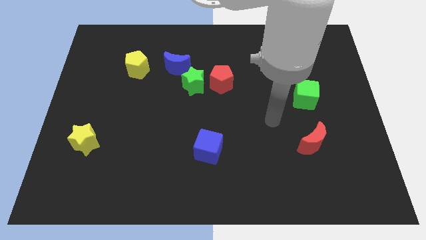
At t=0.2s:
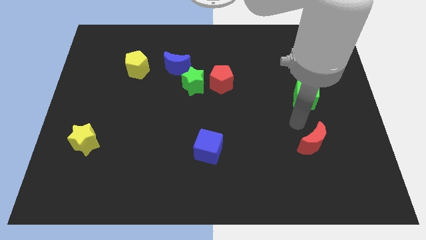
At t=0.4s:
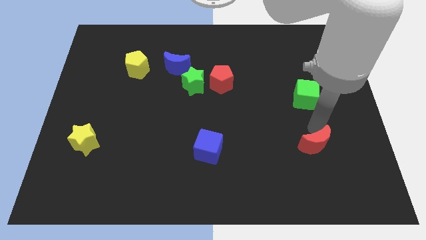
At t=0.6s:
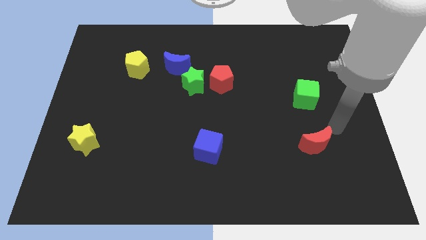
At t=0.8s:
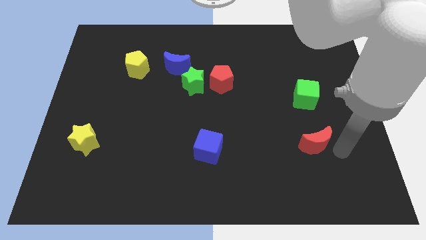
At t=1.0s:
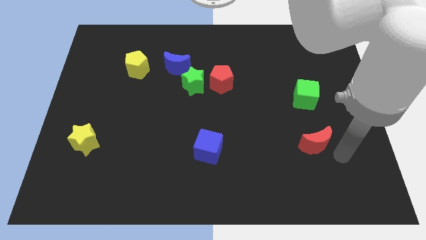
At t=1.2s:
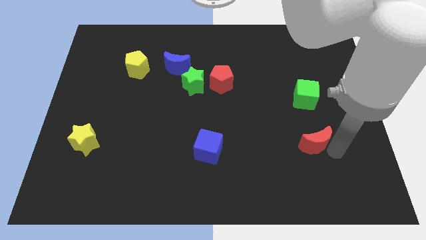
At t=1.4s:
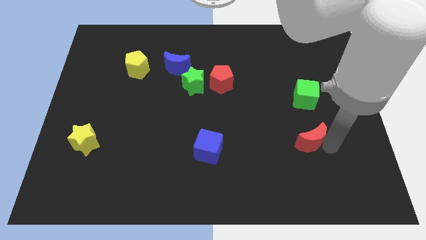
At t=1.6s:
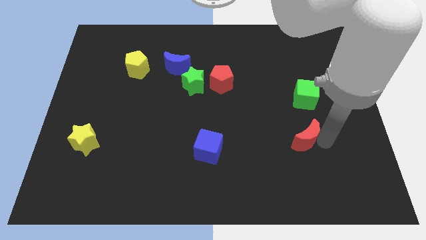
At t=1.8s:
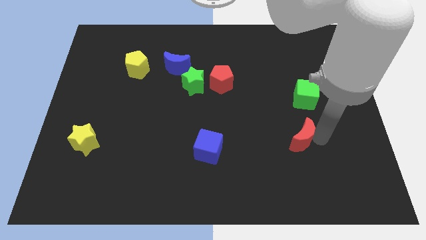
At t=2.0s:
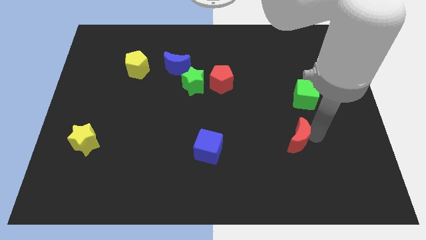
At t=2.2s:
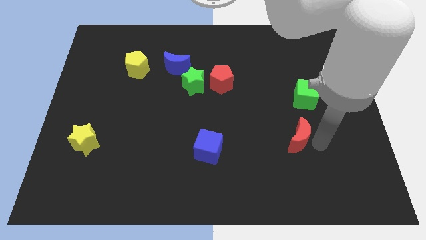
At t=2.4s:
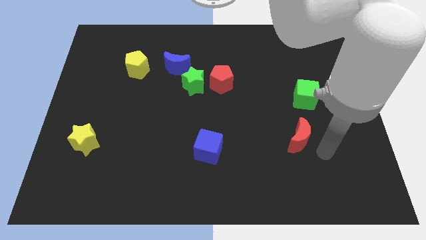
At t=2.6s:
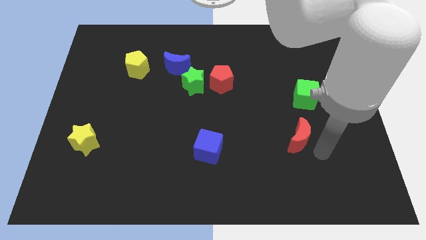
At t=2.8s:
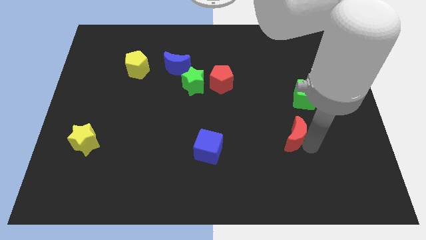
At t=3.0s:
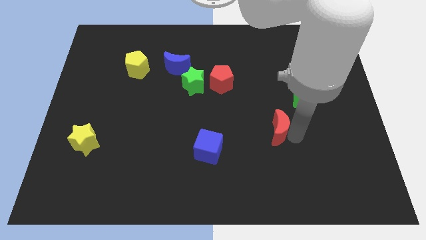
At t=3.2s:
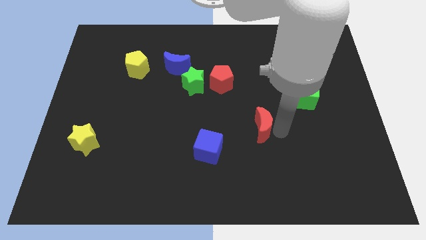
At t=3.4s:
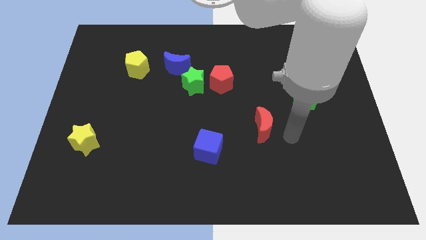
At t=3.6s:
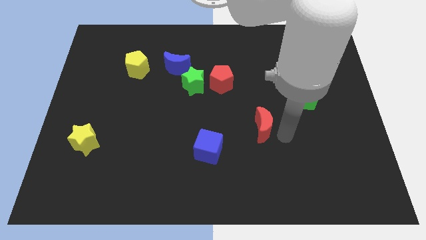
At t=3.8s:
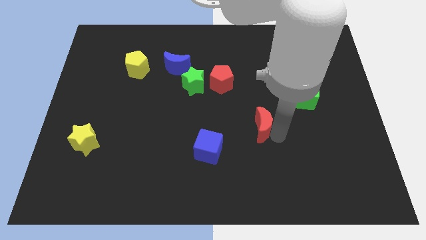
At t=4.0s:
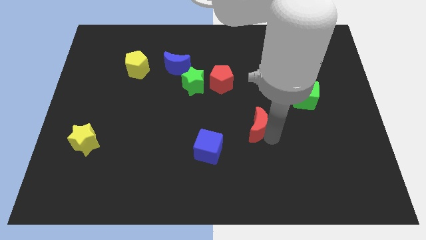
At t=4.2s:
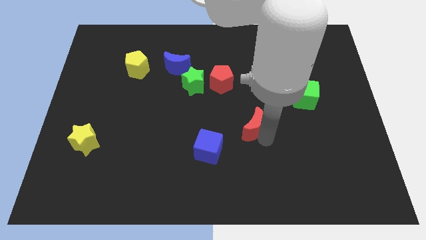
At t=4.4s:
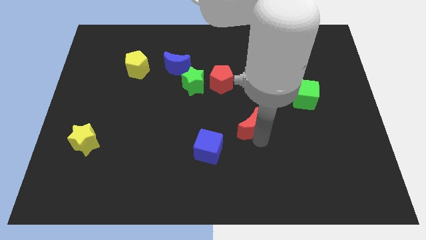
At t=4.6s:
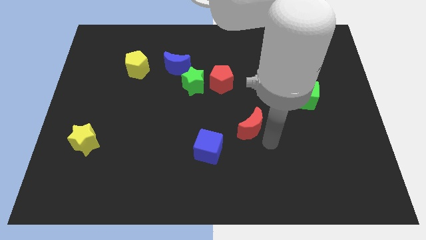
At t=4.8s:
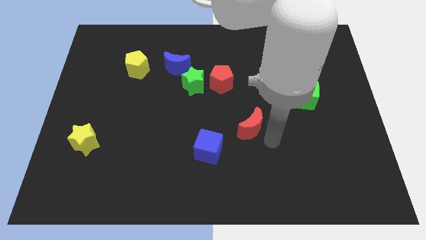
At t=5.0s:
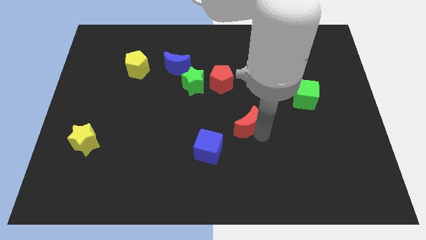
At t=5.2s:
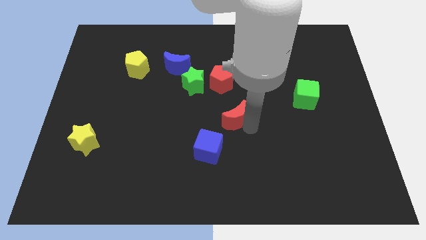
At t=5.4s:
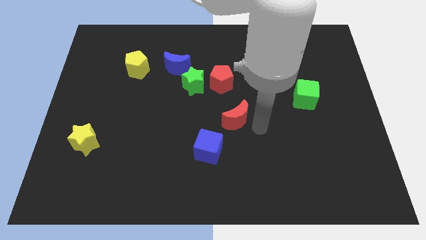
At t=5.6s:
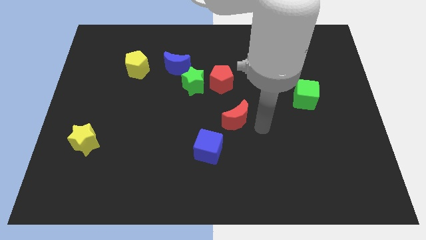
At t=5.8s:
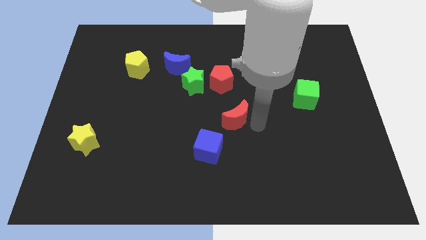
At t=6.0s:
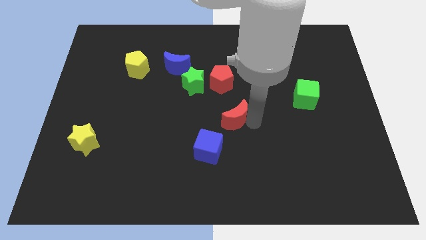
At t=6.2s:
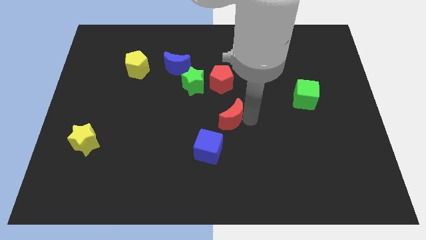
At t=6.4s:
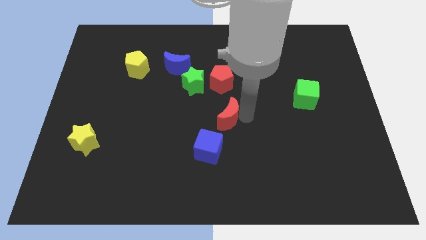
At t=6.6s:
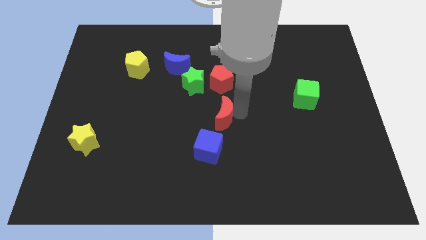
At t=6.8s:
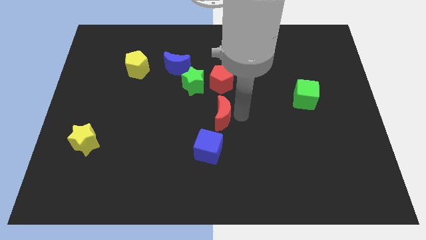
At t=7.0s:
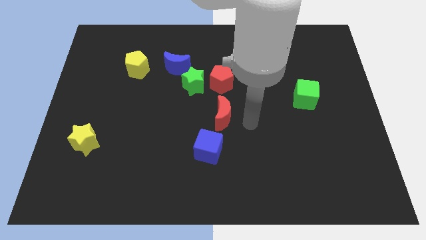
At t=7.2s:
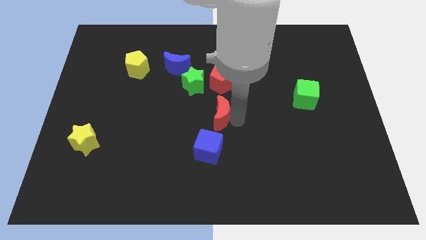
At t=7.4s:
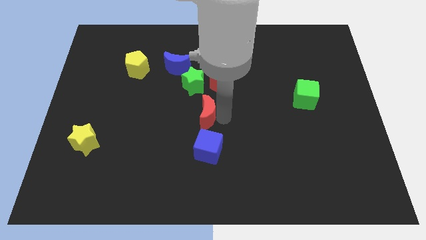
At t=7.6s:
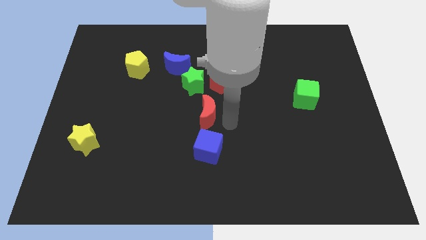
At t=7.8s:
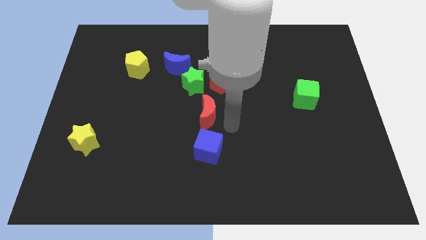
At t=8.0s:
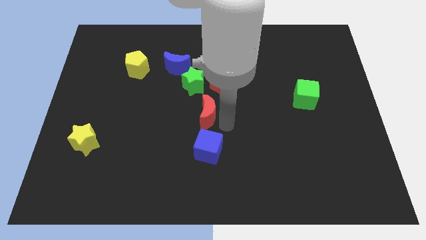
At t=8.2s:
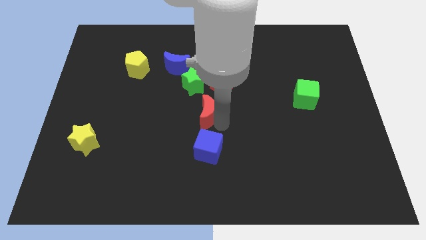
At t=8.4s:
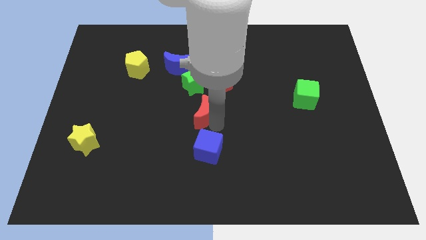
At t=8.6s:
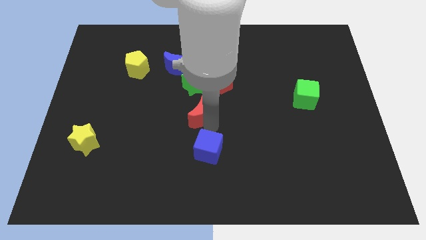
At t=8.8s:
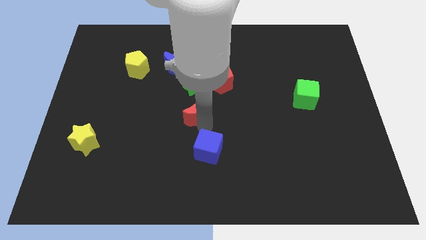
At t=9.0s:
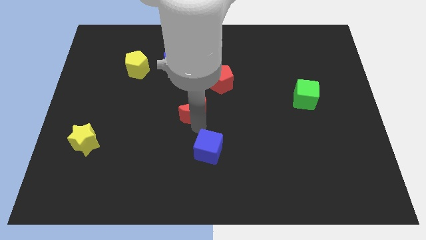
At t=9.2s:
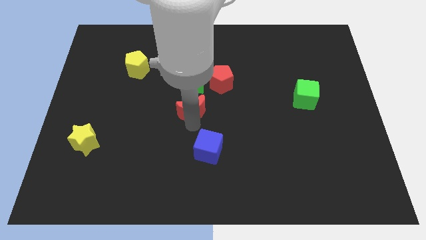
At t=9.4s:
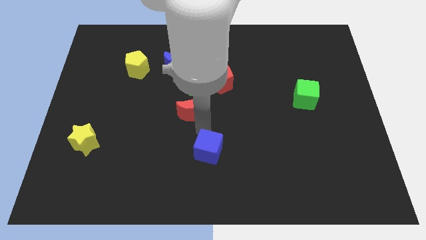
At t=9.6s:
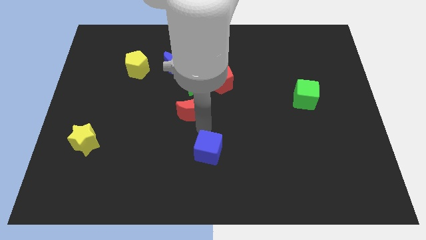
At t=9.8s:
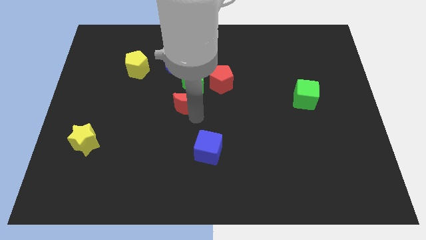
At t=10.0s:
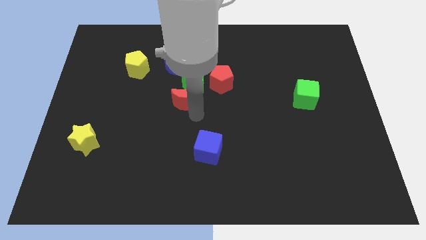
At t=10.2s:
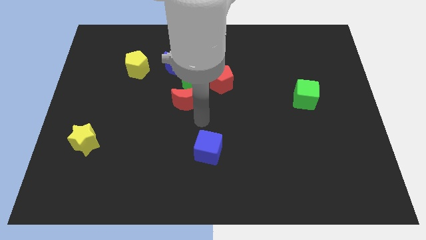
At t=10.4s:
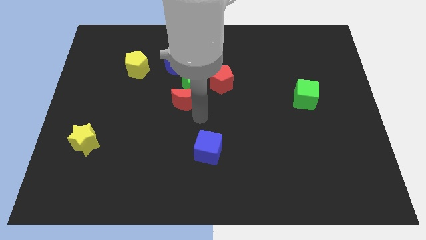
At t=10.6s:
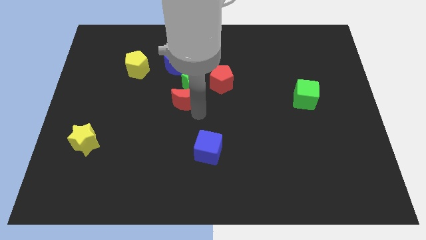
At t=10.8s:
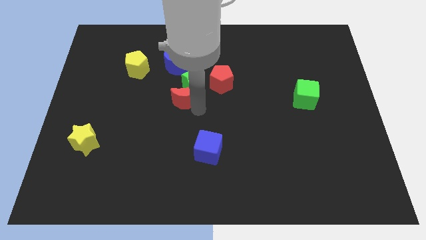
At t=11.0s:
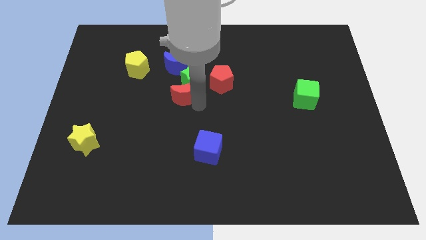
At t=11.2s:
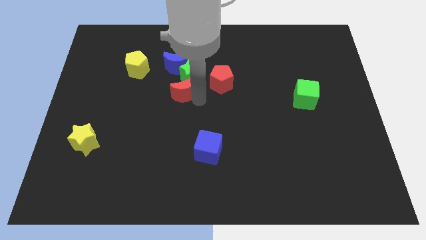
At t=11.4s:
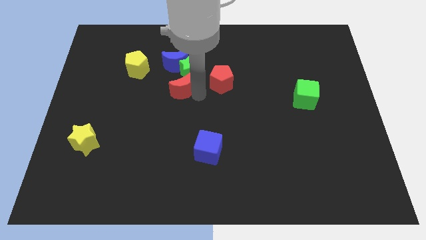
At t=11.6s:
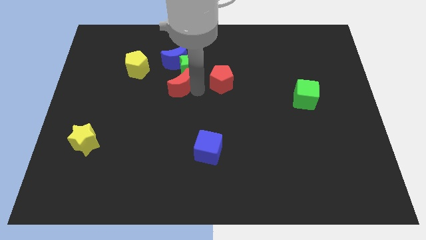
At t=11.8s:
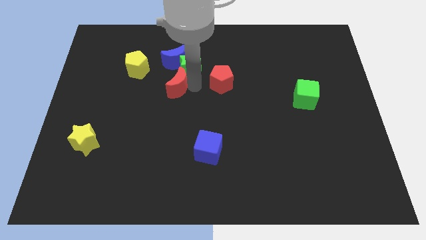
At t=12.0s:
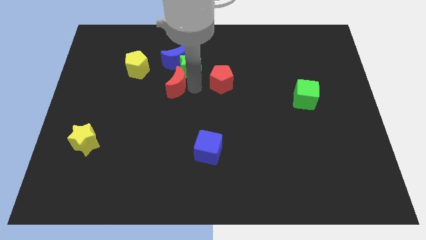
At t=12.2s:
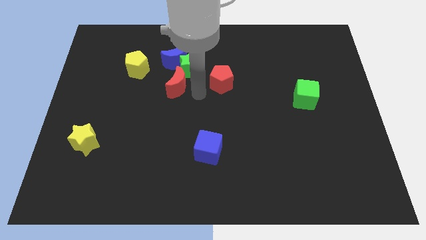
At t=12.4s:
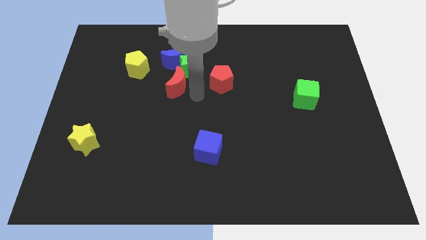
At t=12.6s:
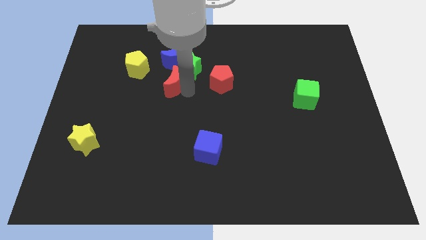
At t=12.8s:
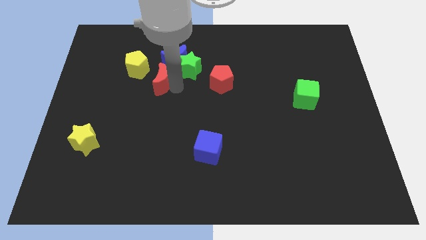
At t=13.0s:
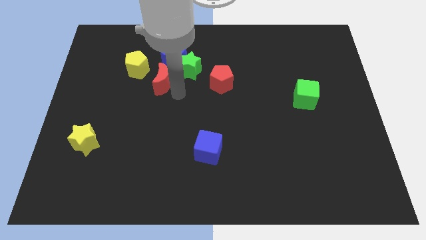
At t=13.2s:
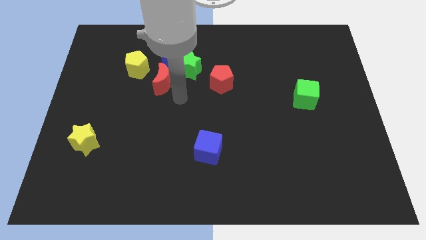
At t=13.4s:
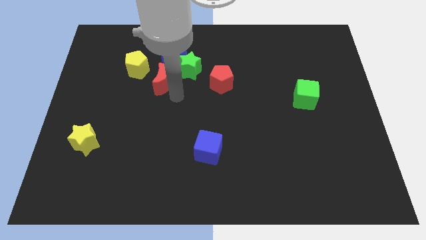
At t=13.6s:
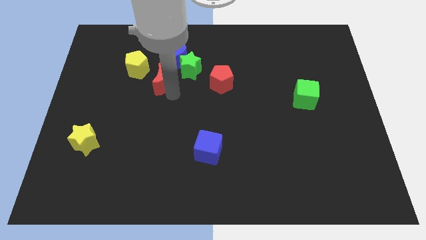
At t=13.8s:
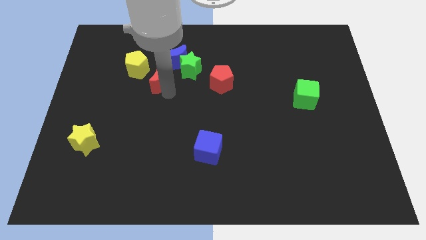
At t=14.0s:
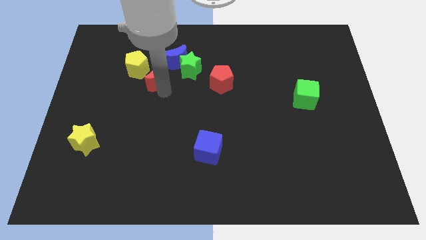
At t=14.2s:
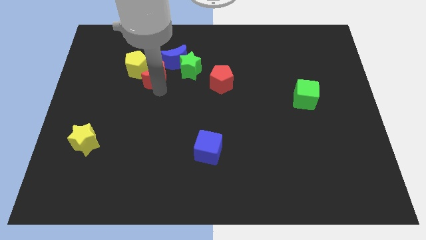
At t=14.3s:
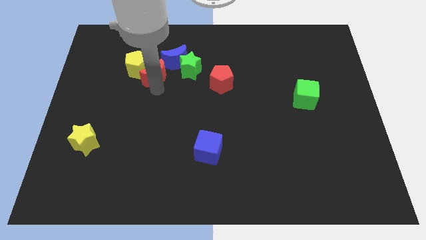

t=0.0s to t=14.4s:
move the red moon next to the yellow pentagon
